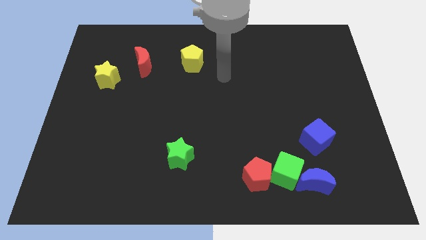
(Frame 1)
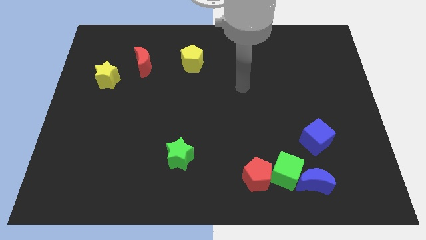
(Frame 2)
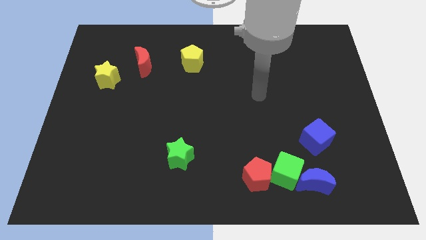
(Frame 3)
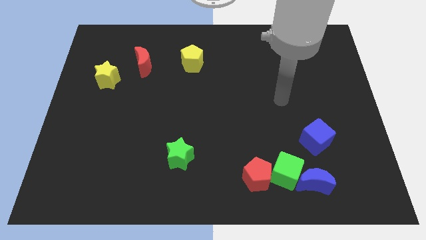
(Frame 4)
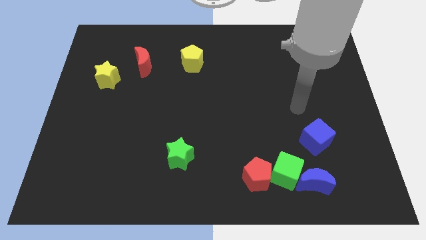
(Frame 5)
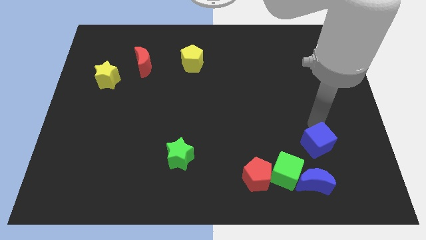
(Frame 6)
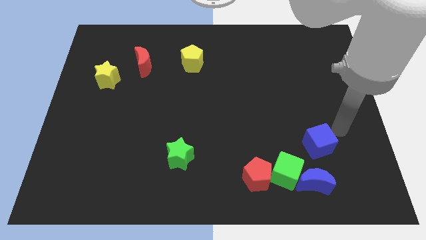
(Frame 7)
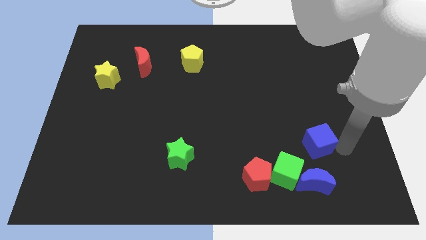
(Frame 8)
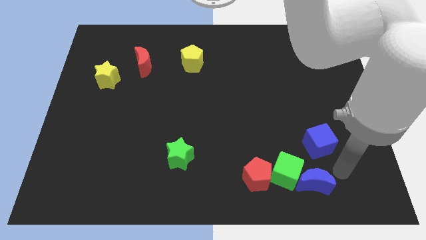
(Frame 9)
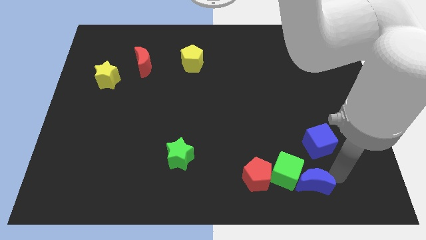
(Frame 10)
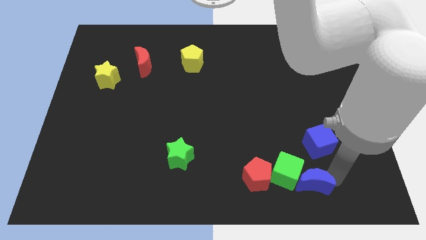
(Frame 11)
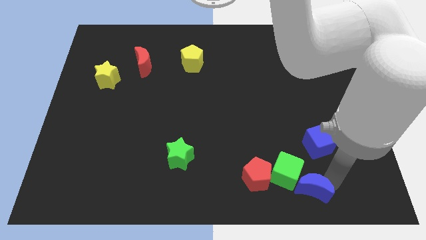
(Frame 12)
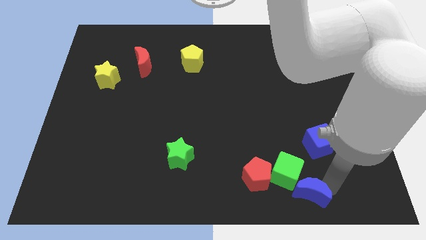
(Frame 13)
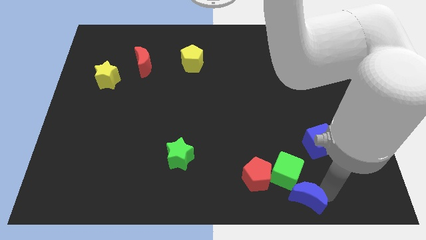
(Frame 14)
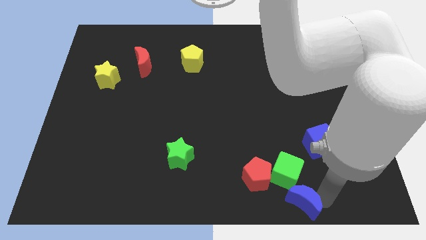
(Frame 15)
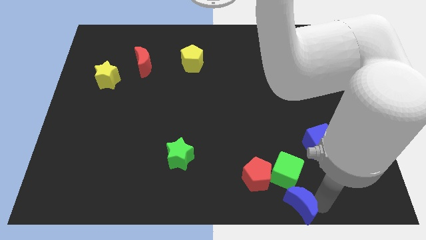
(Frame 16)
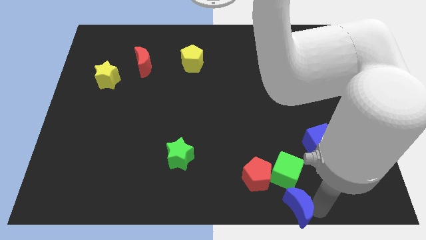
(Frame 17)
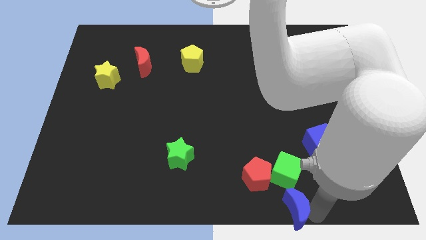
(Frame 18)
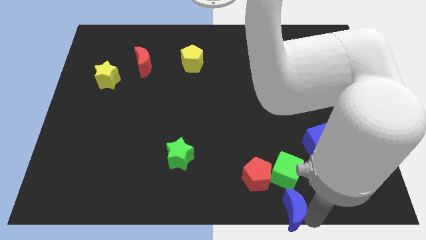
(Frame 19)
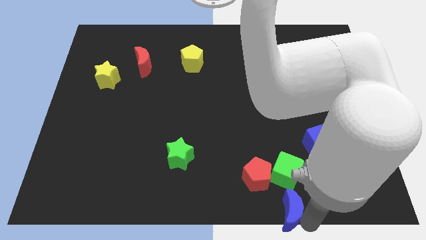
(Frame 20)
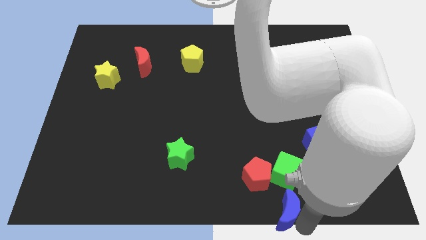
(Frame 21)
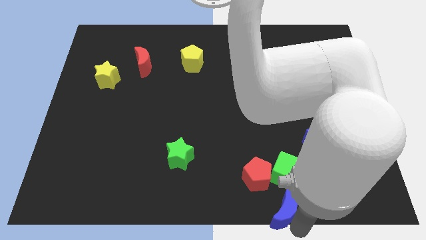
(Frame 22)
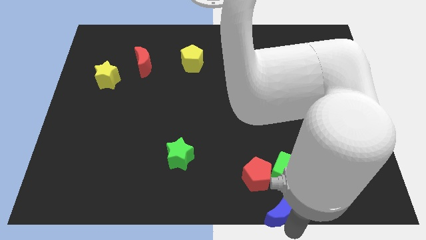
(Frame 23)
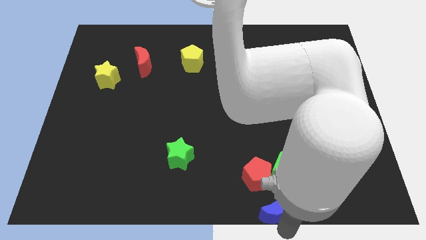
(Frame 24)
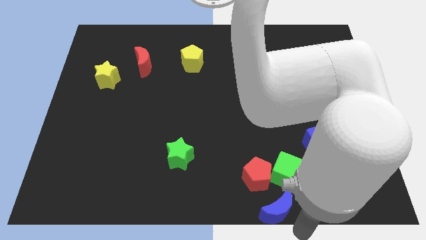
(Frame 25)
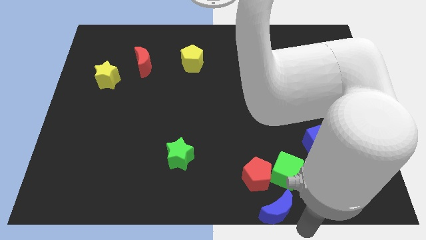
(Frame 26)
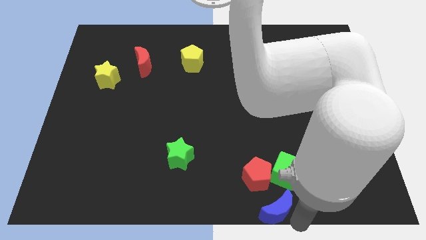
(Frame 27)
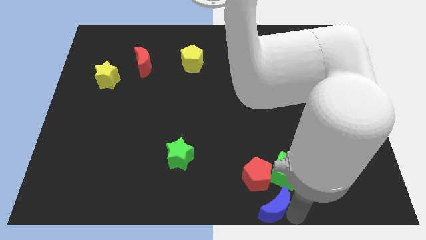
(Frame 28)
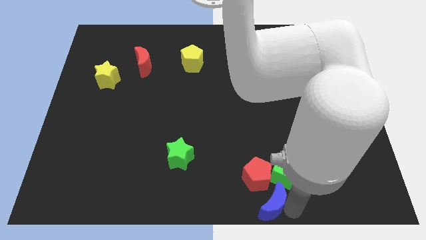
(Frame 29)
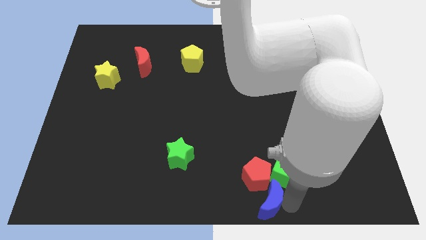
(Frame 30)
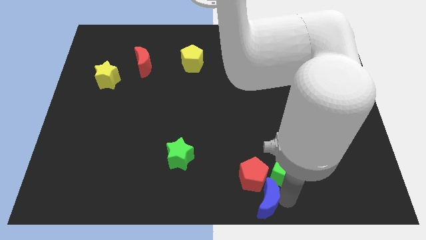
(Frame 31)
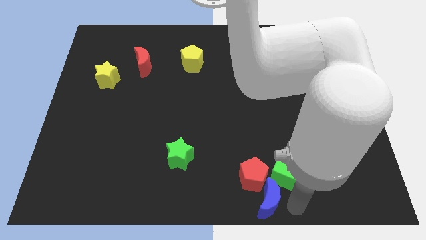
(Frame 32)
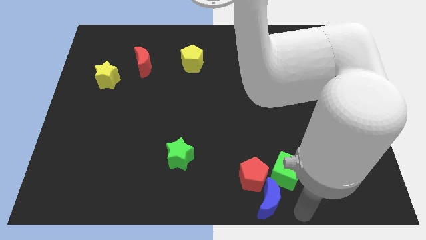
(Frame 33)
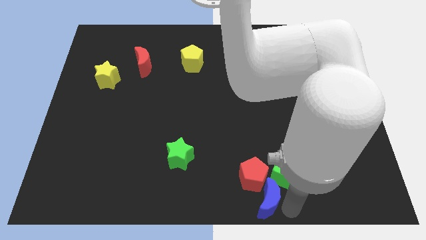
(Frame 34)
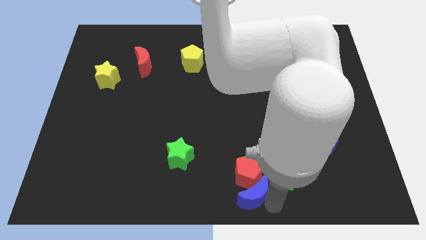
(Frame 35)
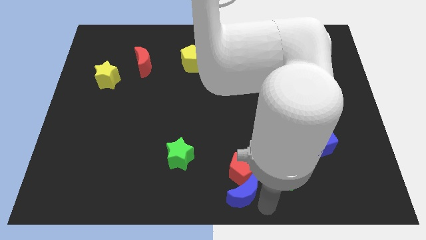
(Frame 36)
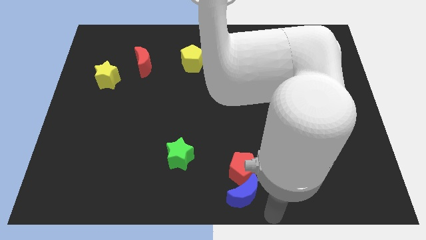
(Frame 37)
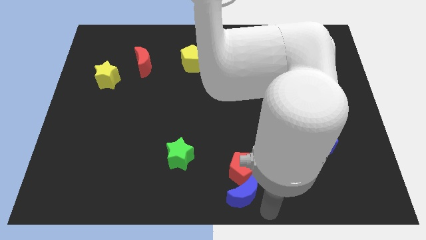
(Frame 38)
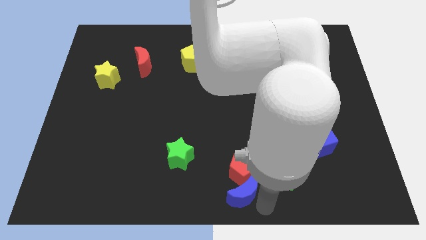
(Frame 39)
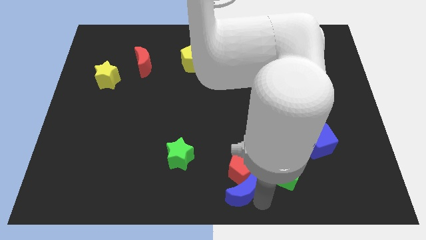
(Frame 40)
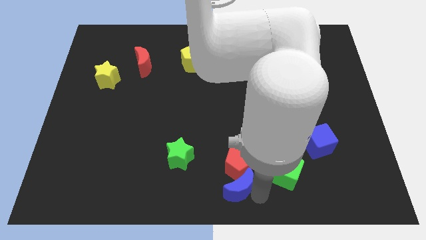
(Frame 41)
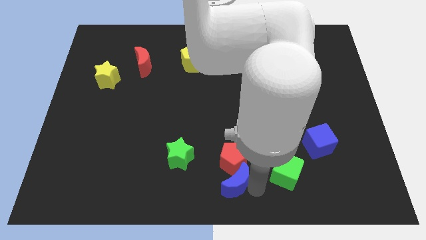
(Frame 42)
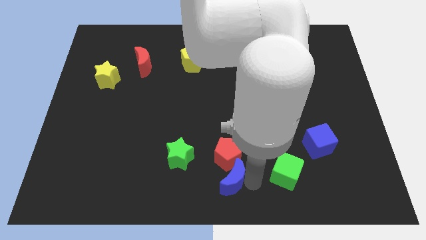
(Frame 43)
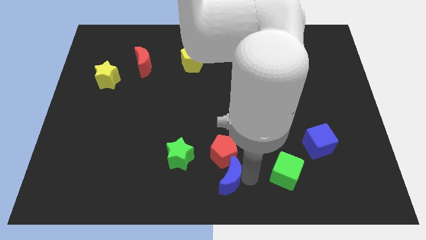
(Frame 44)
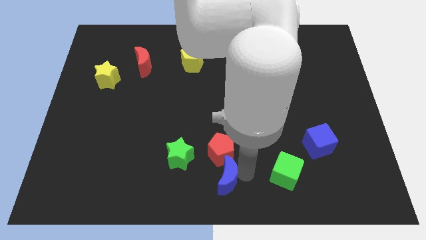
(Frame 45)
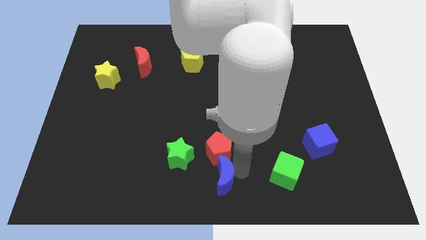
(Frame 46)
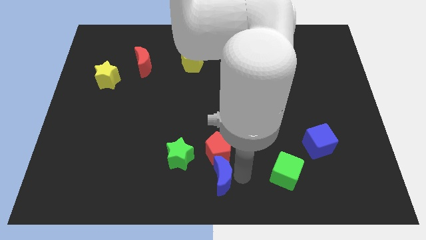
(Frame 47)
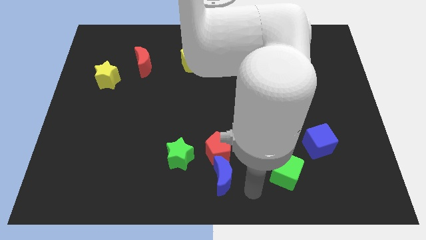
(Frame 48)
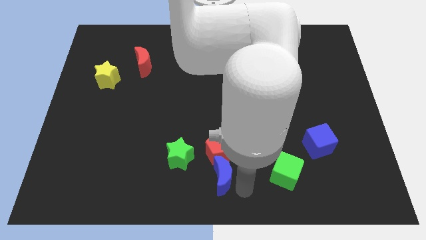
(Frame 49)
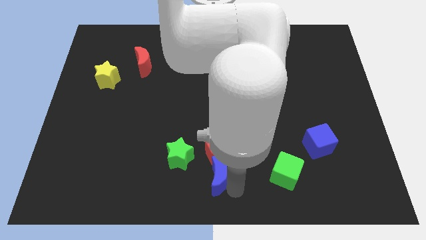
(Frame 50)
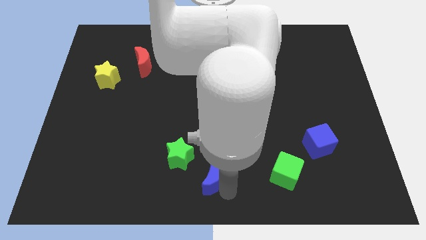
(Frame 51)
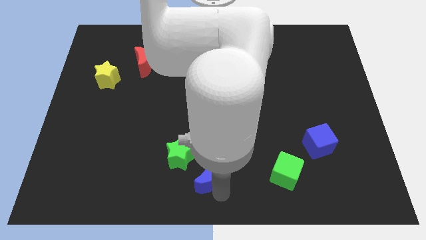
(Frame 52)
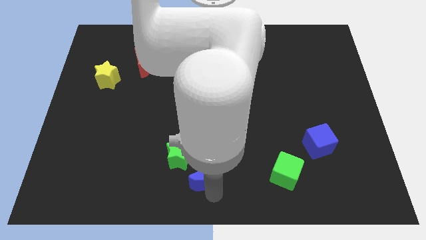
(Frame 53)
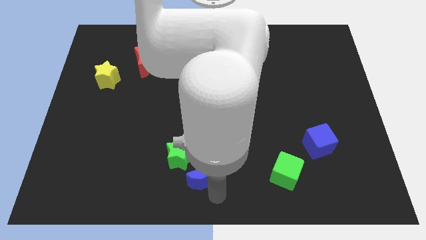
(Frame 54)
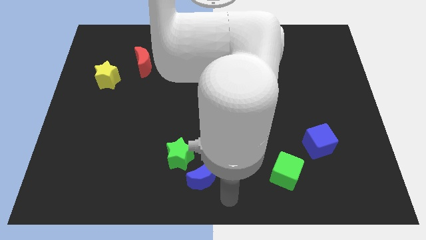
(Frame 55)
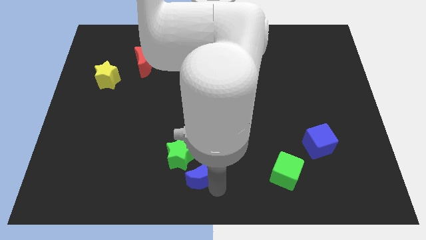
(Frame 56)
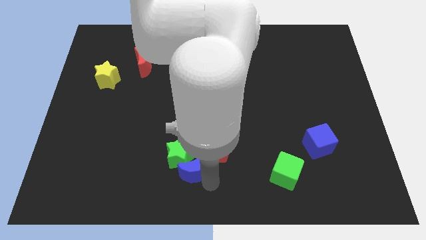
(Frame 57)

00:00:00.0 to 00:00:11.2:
put the blue moon next to the green star

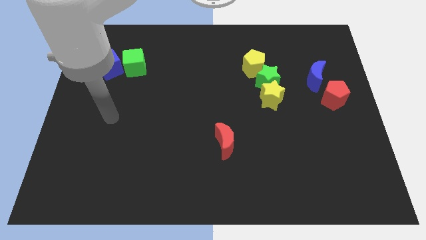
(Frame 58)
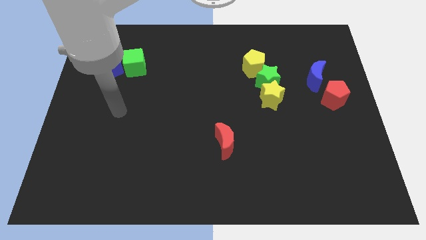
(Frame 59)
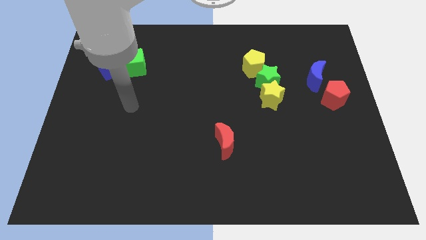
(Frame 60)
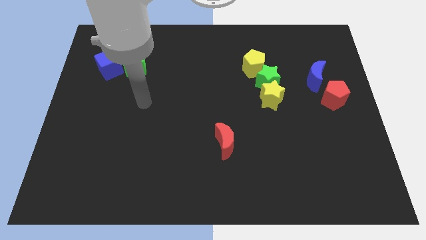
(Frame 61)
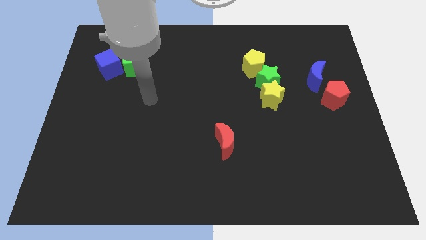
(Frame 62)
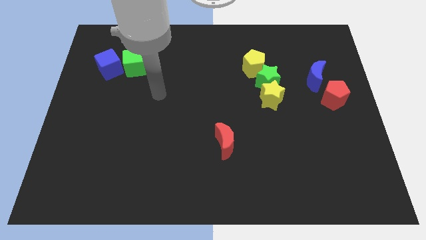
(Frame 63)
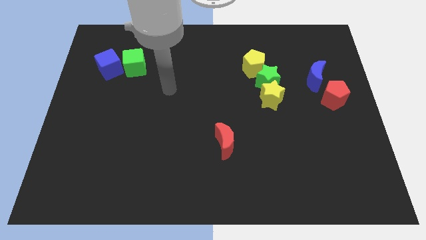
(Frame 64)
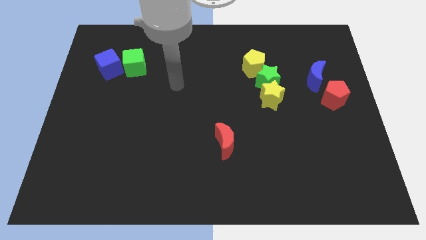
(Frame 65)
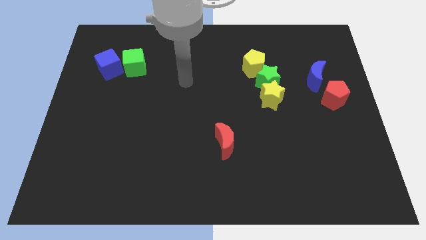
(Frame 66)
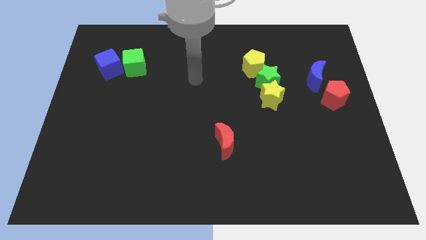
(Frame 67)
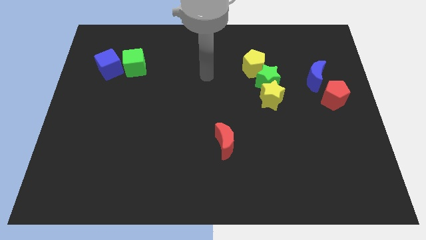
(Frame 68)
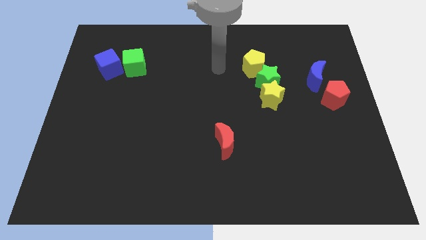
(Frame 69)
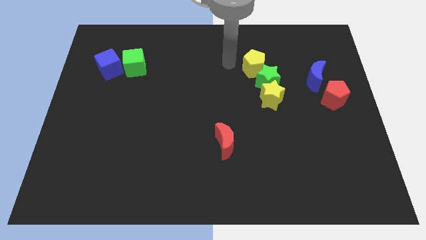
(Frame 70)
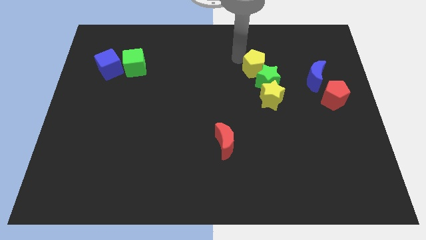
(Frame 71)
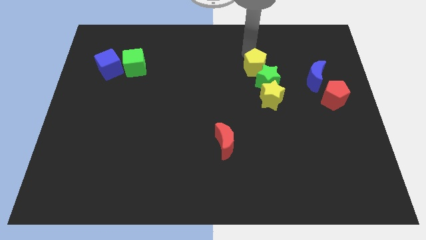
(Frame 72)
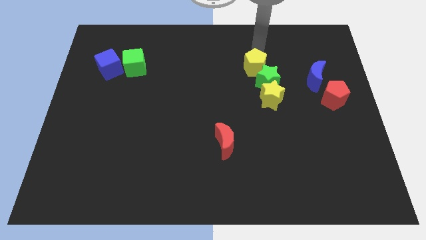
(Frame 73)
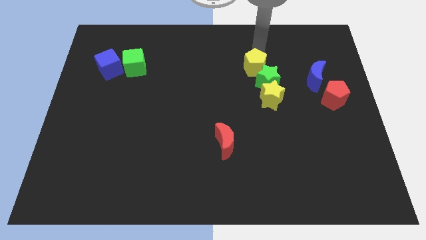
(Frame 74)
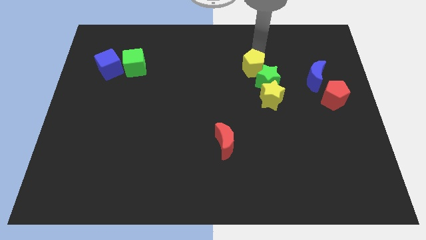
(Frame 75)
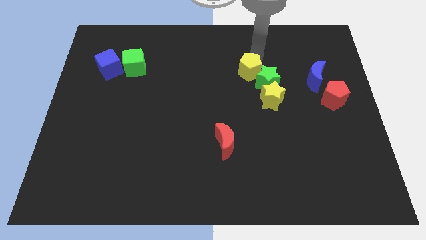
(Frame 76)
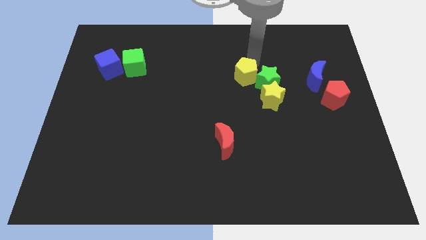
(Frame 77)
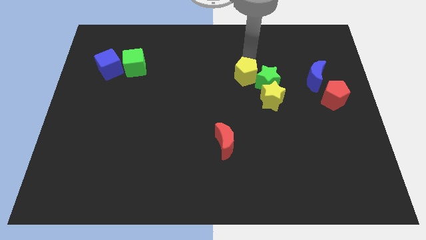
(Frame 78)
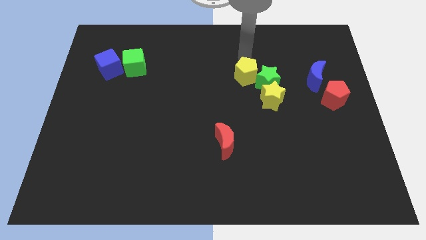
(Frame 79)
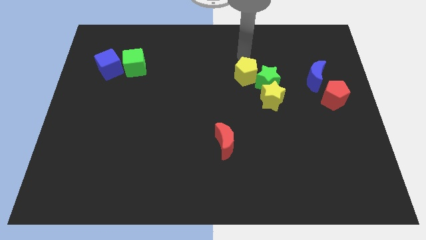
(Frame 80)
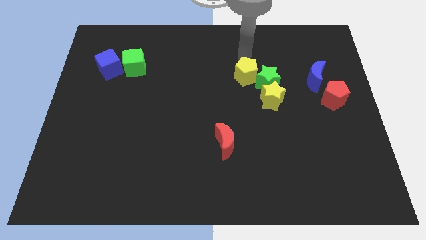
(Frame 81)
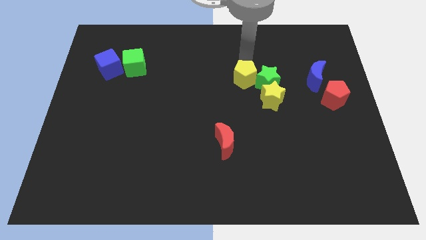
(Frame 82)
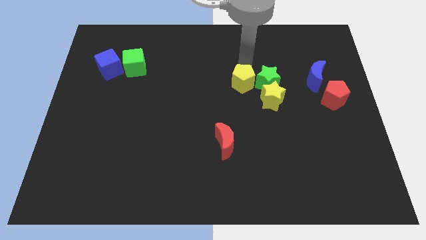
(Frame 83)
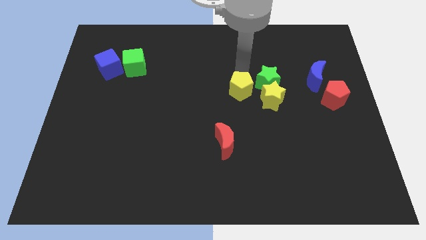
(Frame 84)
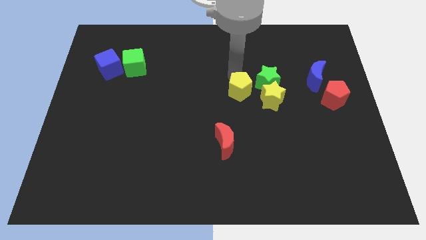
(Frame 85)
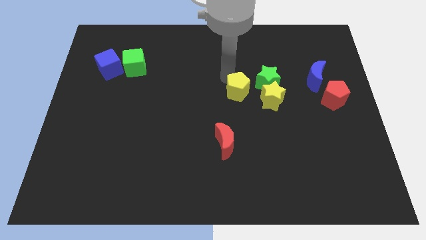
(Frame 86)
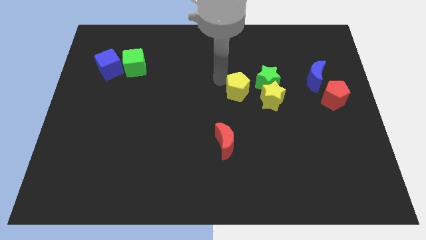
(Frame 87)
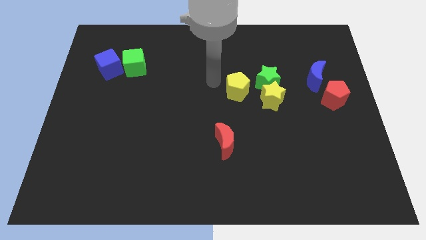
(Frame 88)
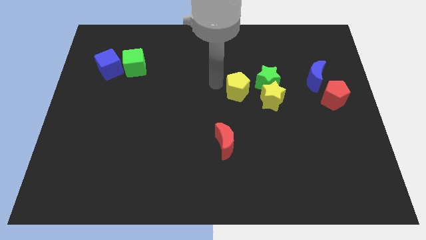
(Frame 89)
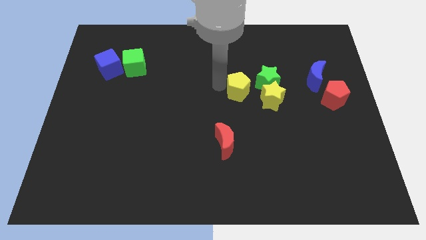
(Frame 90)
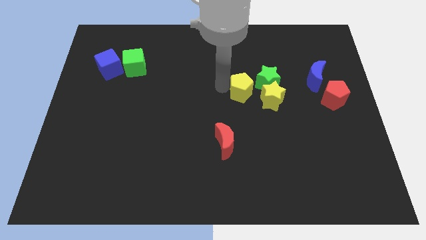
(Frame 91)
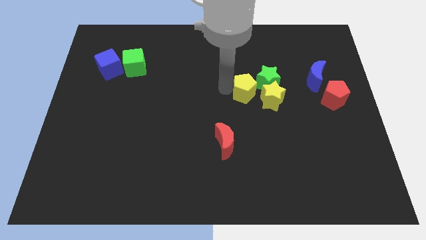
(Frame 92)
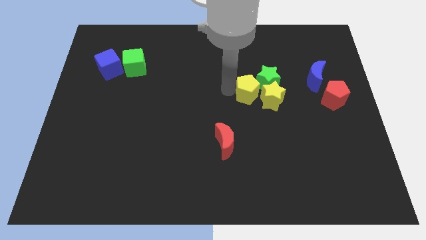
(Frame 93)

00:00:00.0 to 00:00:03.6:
slide the yellow pentagon next to the yellow star
